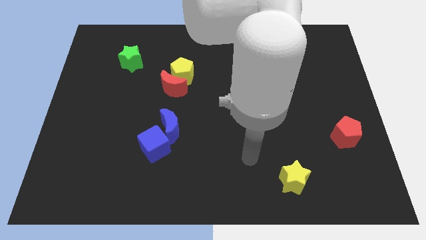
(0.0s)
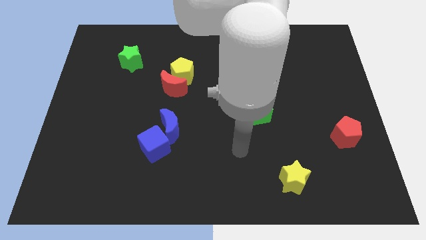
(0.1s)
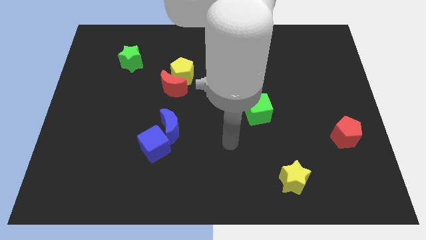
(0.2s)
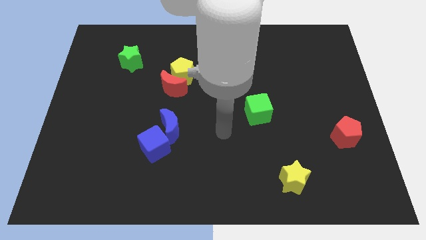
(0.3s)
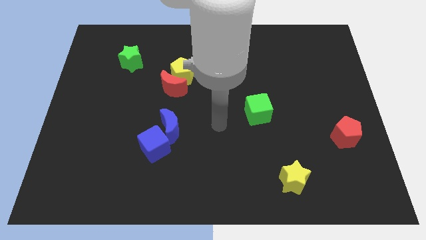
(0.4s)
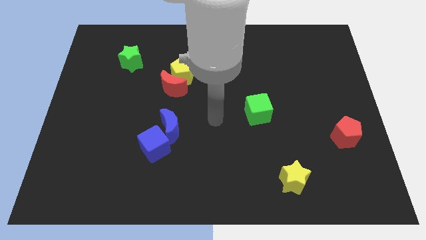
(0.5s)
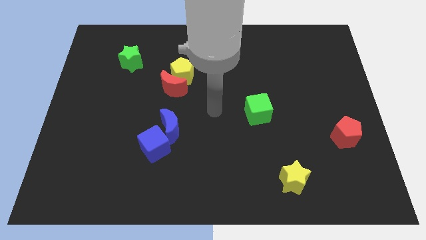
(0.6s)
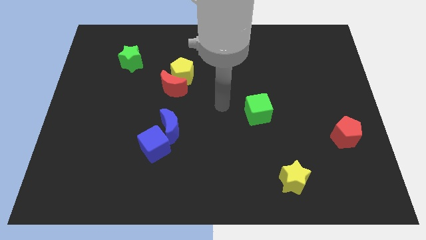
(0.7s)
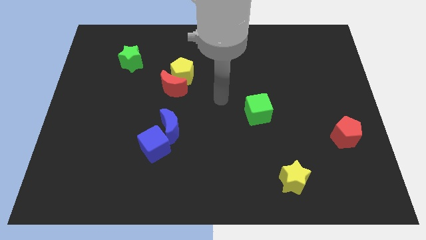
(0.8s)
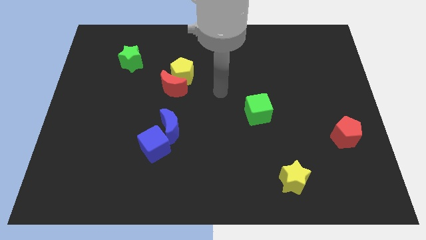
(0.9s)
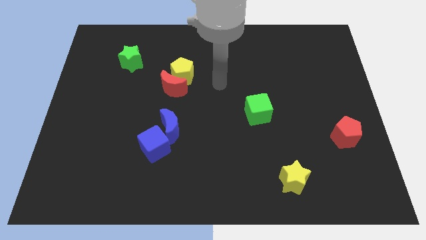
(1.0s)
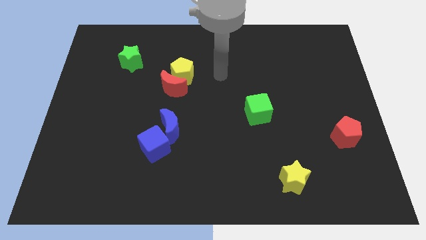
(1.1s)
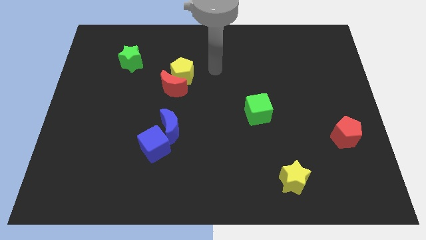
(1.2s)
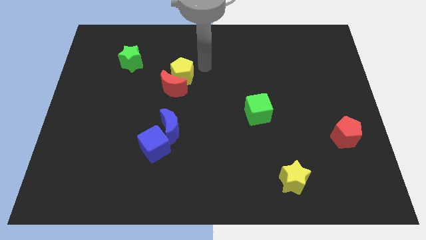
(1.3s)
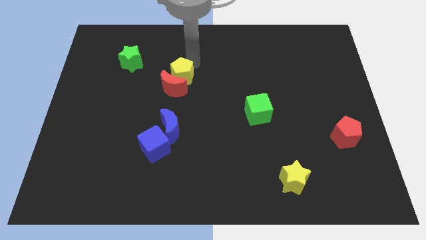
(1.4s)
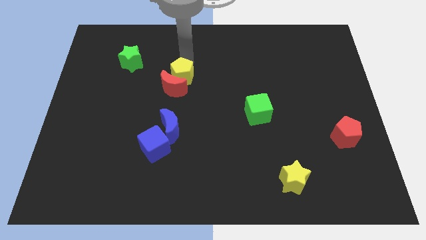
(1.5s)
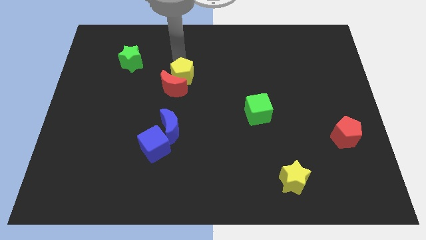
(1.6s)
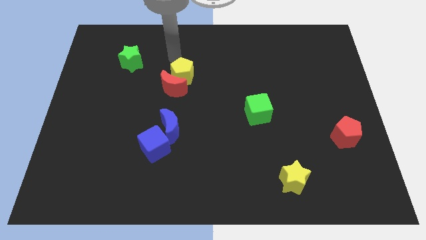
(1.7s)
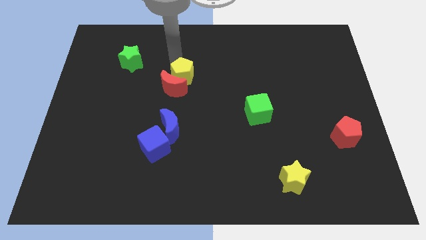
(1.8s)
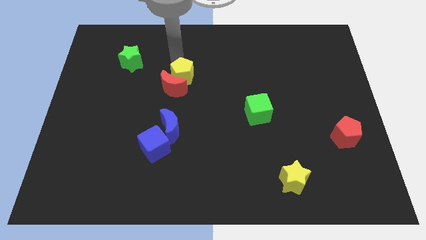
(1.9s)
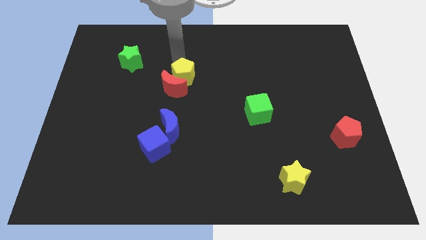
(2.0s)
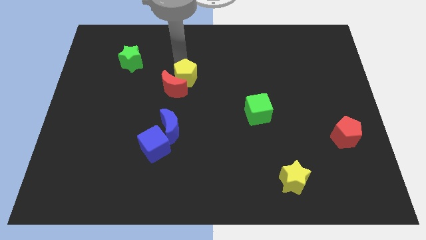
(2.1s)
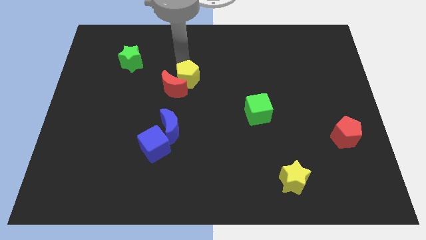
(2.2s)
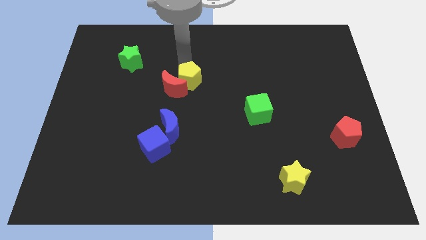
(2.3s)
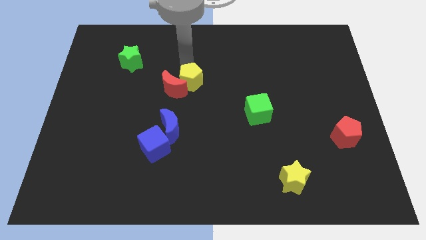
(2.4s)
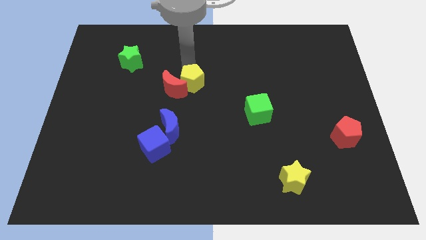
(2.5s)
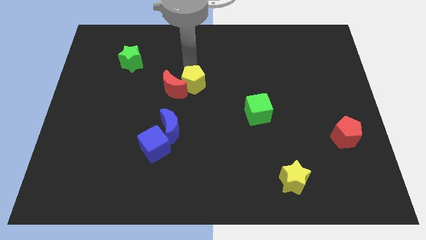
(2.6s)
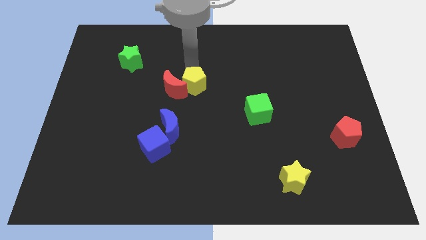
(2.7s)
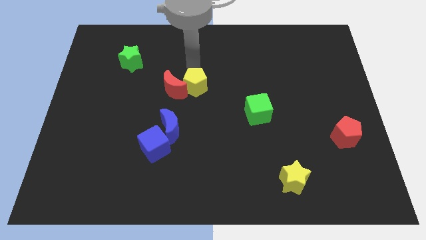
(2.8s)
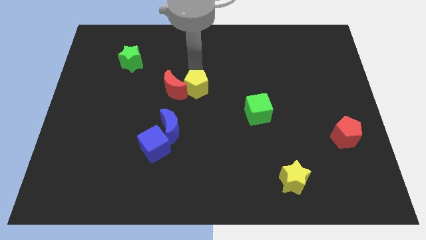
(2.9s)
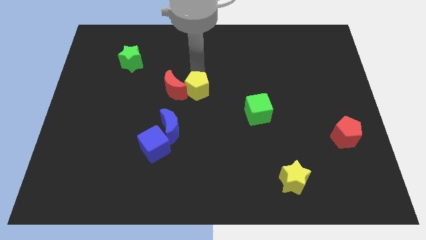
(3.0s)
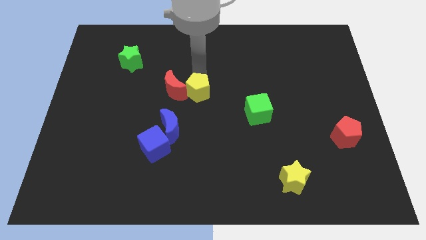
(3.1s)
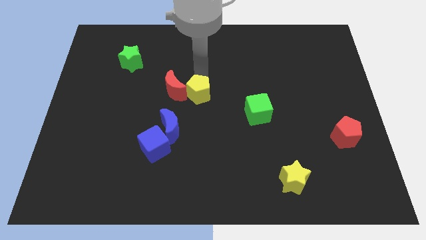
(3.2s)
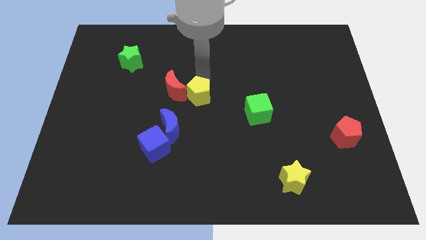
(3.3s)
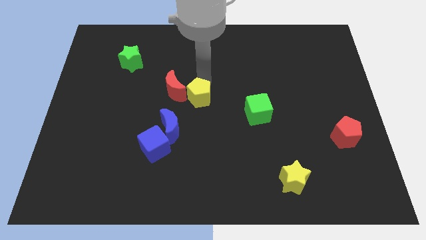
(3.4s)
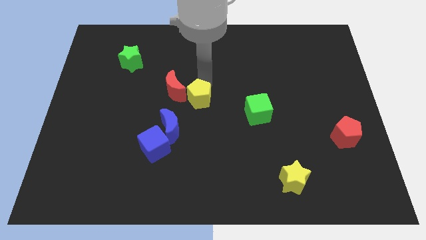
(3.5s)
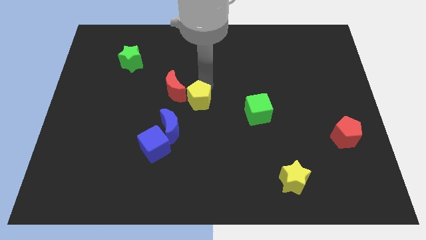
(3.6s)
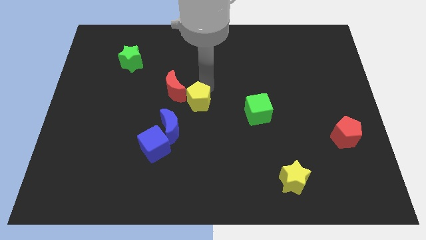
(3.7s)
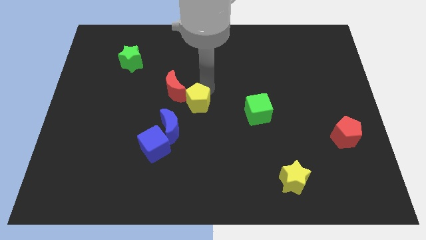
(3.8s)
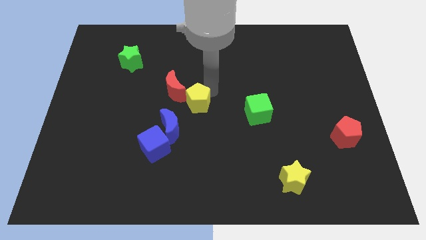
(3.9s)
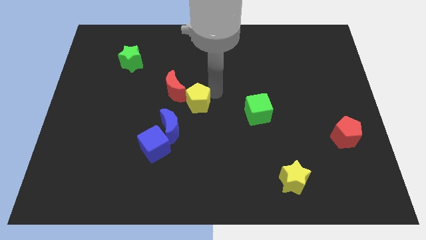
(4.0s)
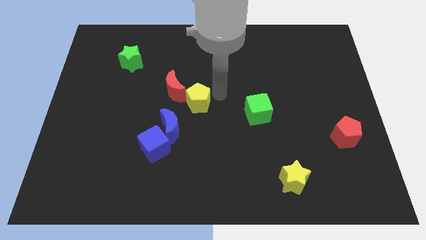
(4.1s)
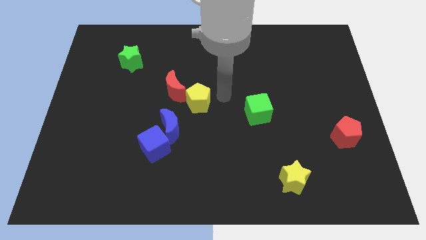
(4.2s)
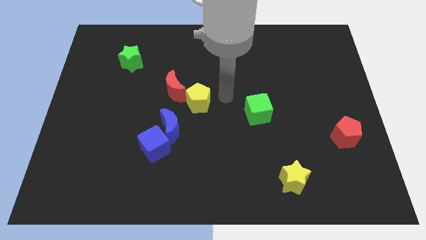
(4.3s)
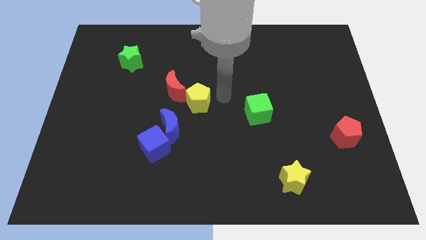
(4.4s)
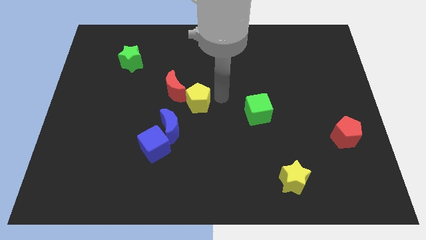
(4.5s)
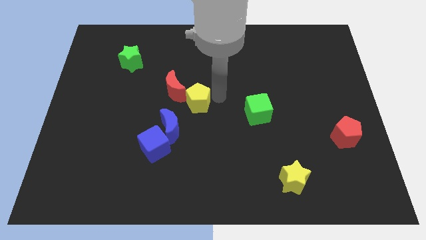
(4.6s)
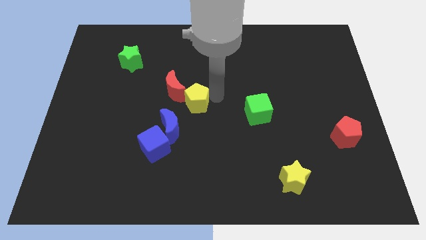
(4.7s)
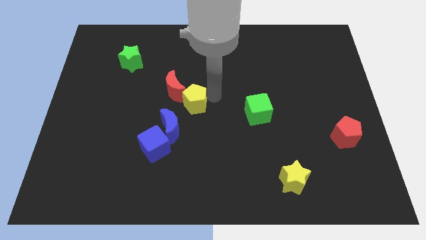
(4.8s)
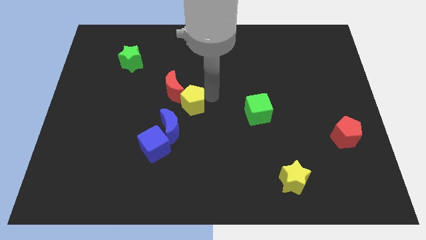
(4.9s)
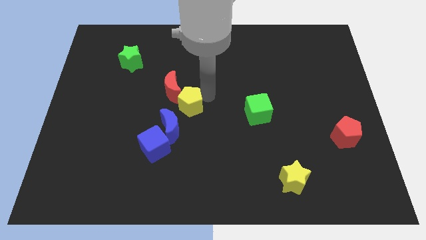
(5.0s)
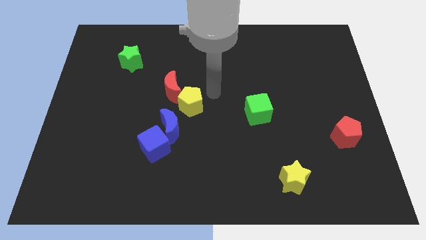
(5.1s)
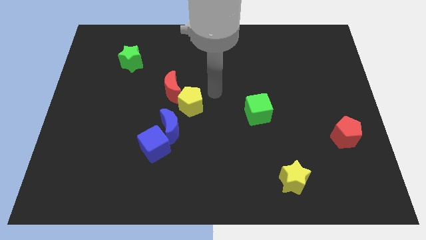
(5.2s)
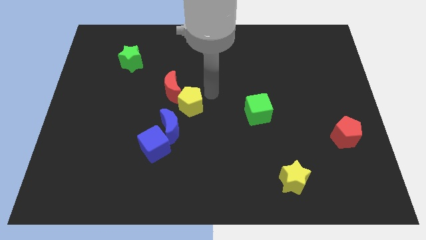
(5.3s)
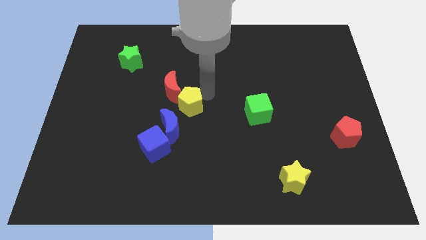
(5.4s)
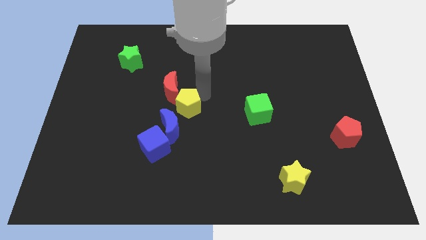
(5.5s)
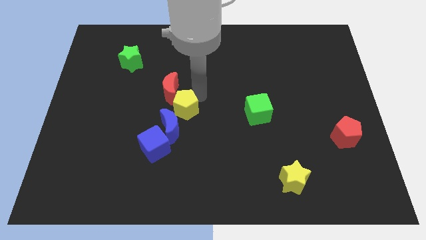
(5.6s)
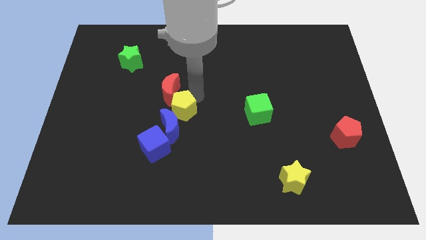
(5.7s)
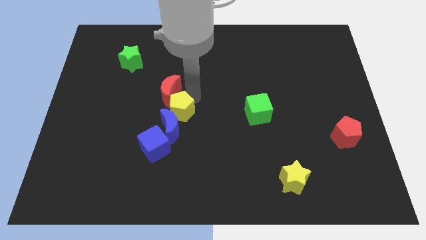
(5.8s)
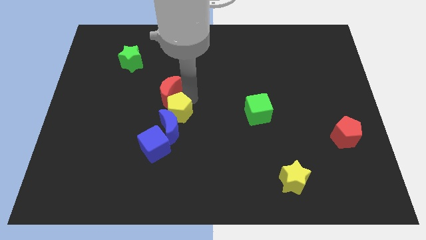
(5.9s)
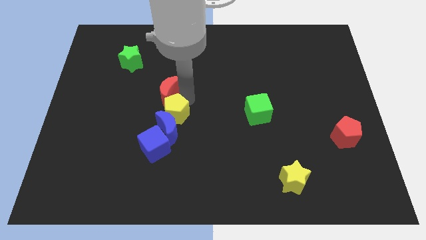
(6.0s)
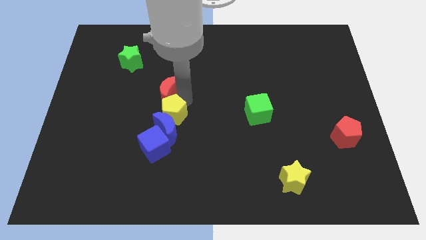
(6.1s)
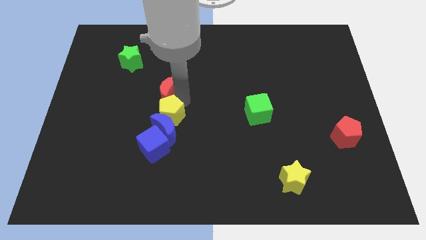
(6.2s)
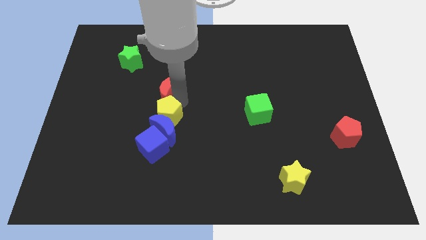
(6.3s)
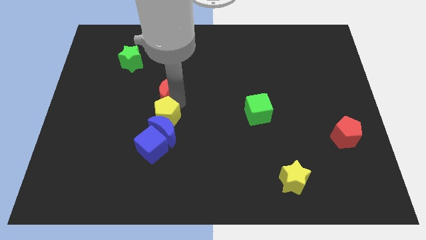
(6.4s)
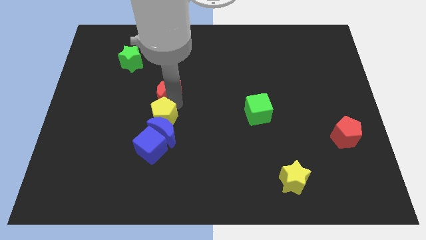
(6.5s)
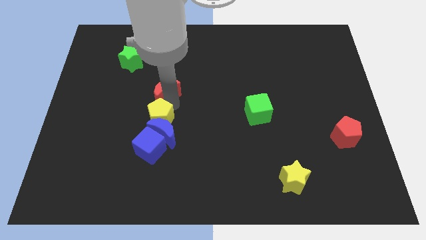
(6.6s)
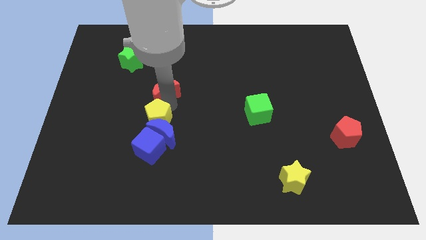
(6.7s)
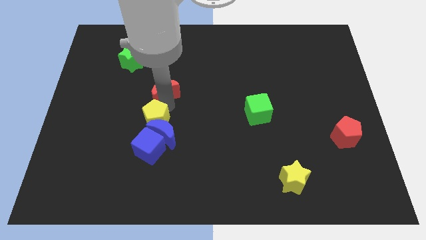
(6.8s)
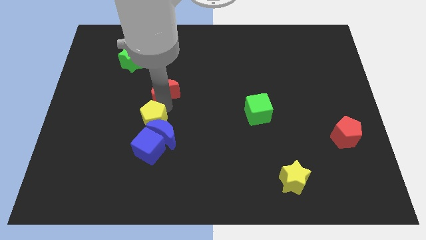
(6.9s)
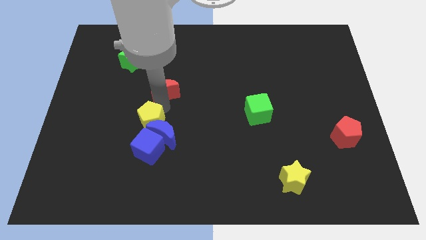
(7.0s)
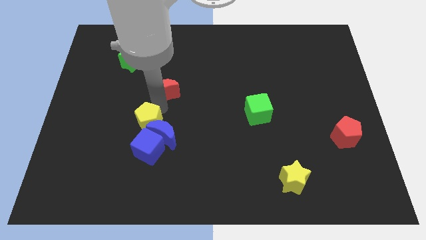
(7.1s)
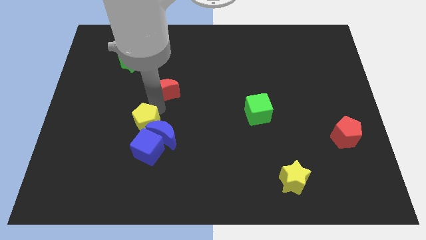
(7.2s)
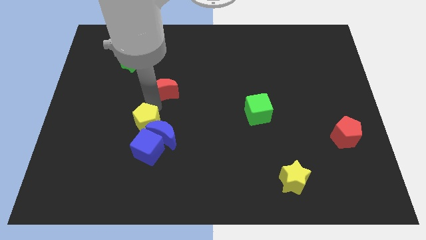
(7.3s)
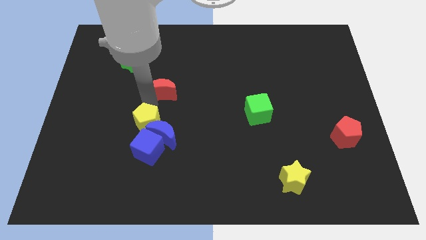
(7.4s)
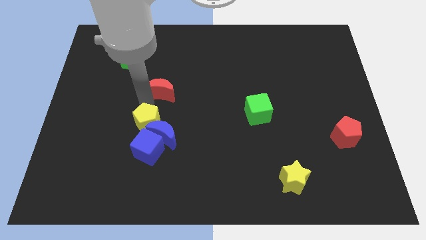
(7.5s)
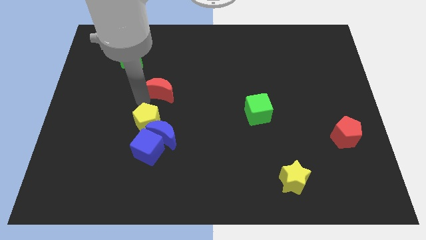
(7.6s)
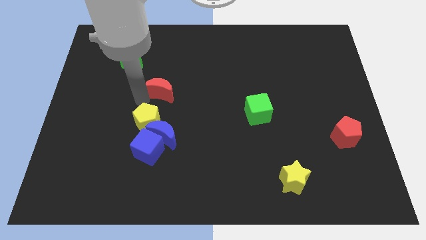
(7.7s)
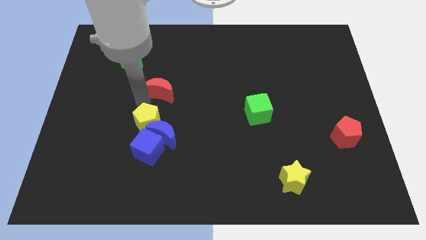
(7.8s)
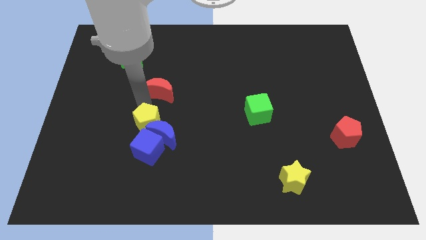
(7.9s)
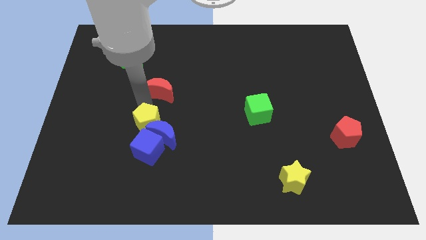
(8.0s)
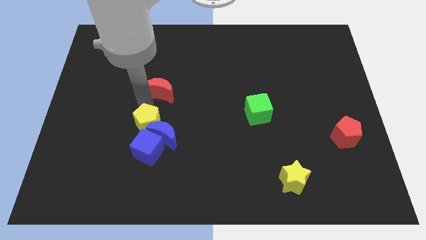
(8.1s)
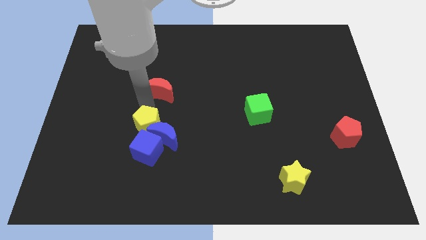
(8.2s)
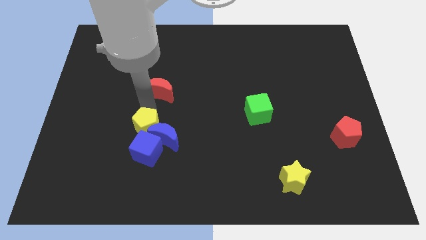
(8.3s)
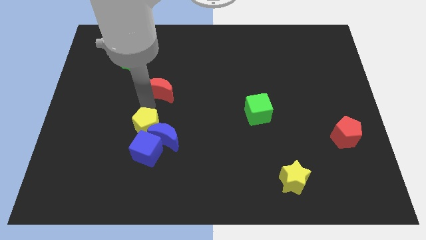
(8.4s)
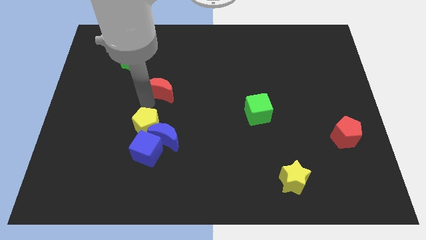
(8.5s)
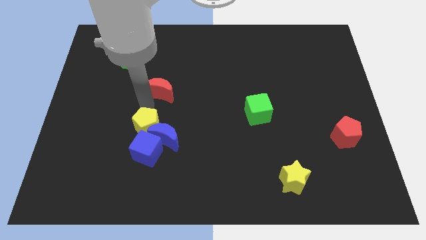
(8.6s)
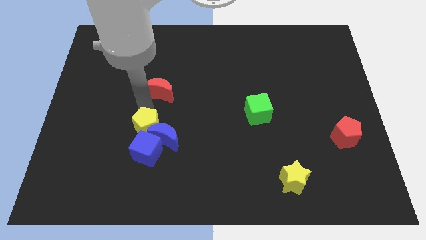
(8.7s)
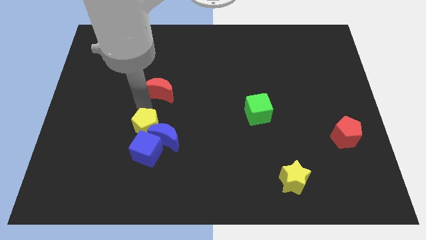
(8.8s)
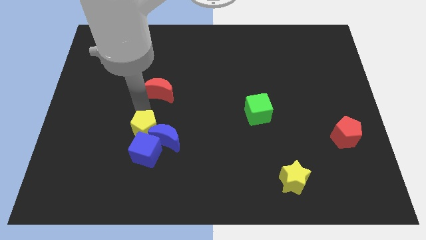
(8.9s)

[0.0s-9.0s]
put the yellow pentagon to the blue cube
